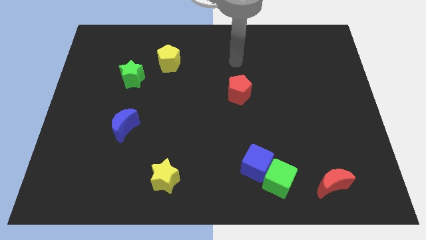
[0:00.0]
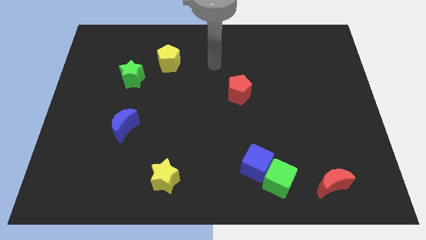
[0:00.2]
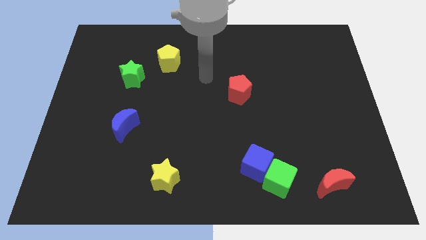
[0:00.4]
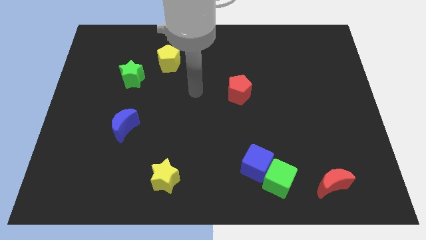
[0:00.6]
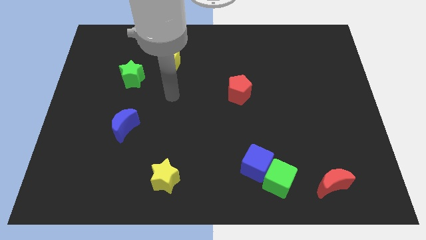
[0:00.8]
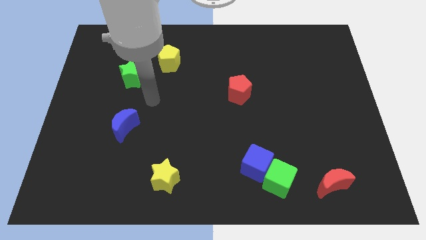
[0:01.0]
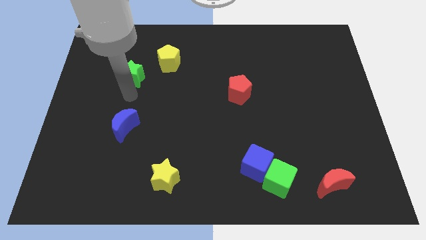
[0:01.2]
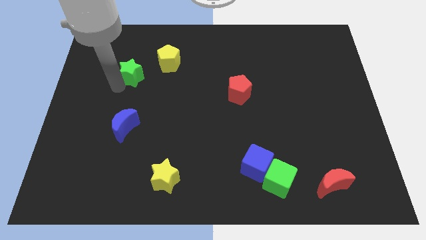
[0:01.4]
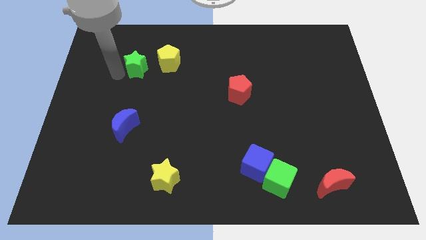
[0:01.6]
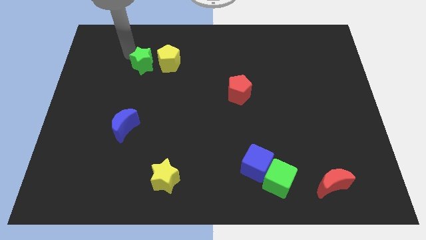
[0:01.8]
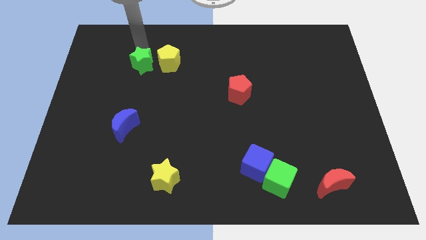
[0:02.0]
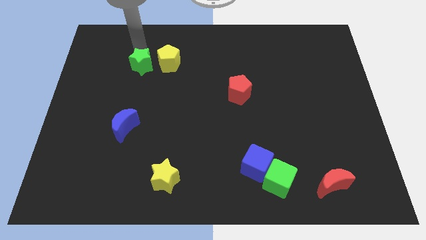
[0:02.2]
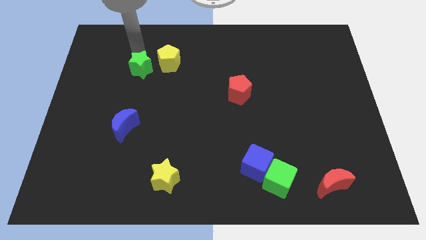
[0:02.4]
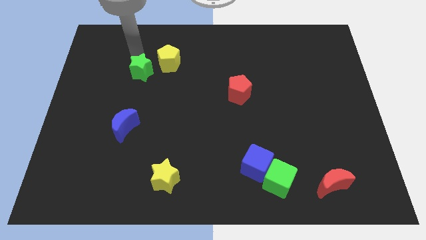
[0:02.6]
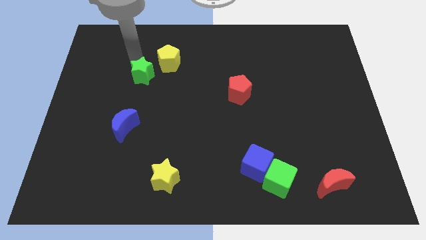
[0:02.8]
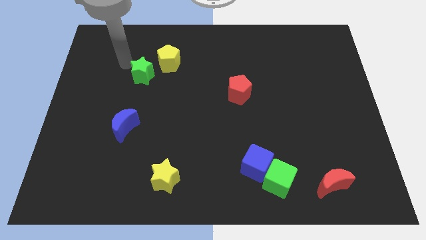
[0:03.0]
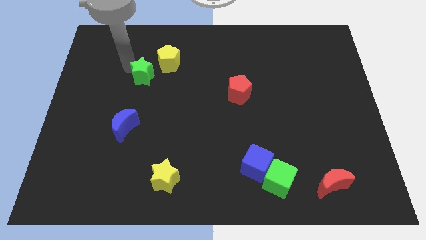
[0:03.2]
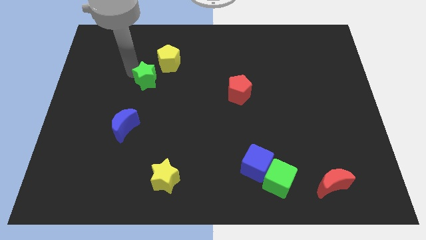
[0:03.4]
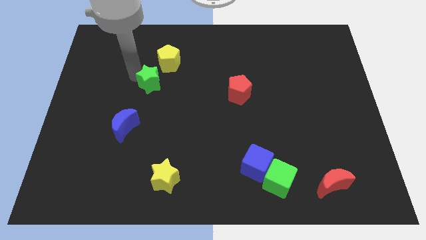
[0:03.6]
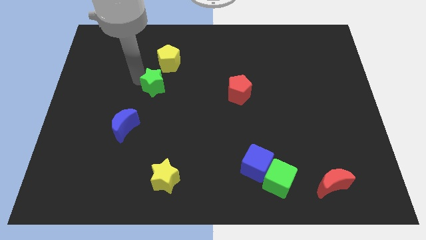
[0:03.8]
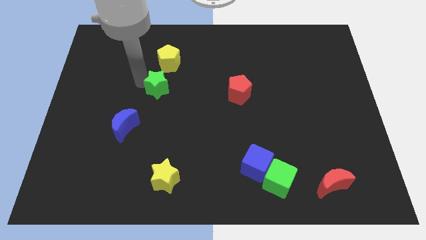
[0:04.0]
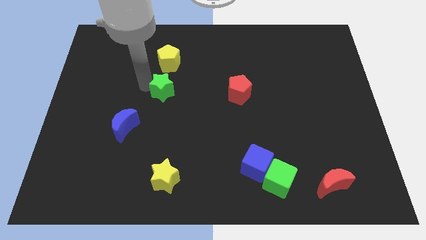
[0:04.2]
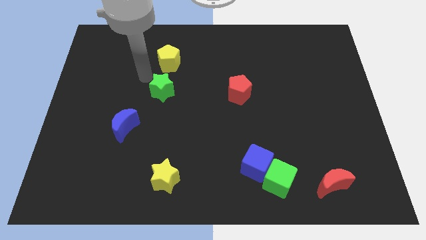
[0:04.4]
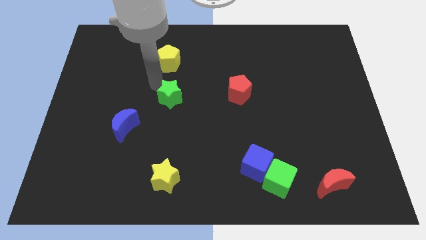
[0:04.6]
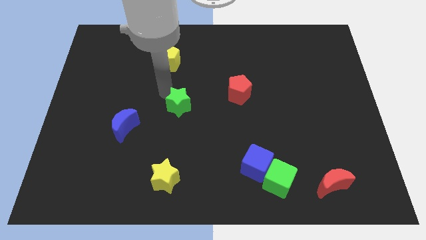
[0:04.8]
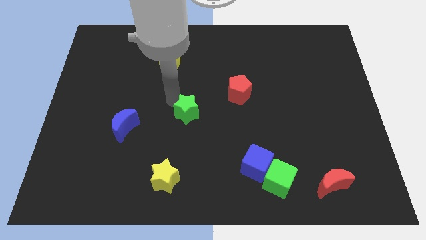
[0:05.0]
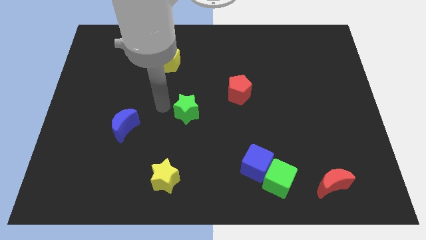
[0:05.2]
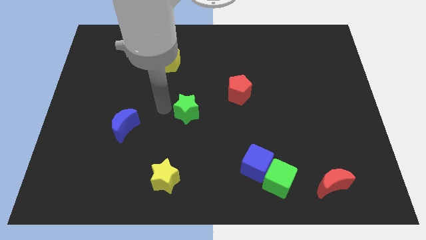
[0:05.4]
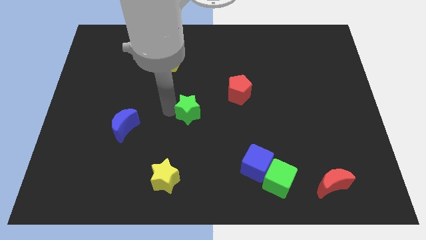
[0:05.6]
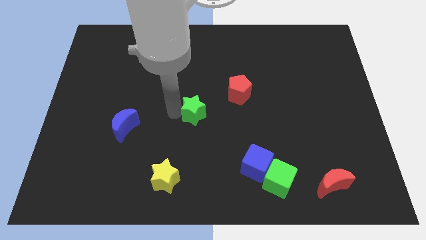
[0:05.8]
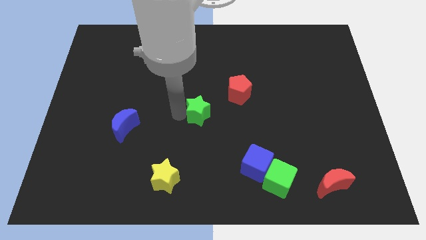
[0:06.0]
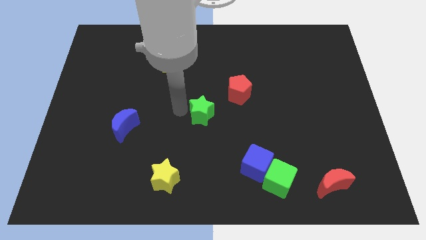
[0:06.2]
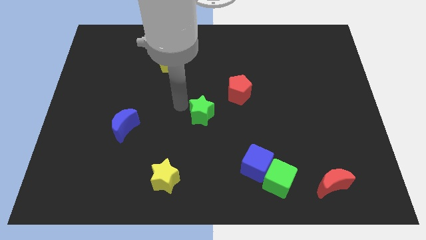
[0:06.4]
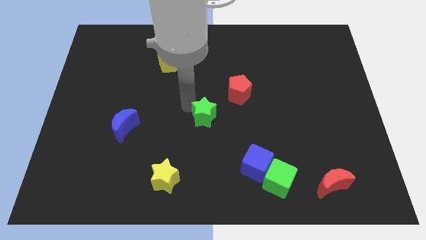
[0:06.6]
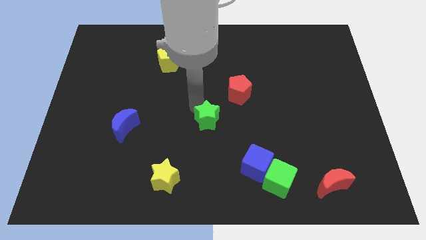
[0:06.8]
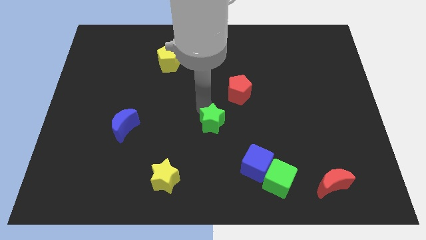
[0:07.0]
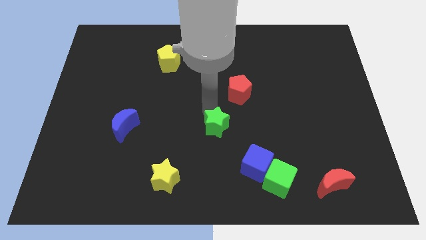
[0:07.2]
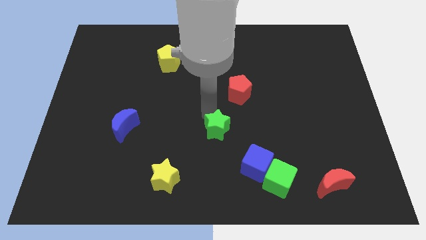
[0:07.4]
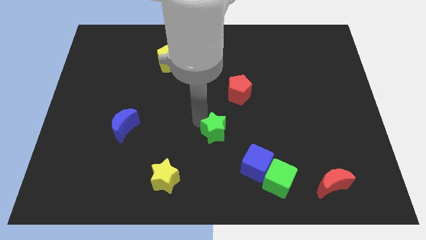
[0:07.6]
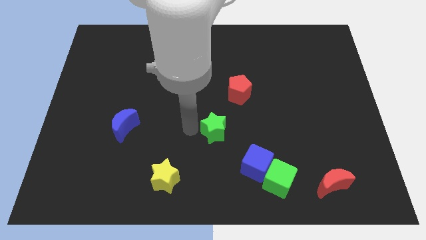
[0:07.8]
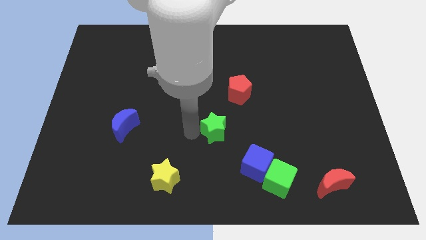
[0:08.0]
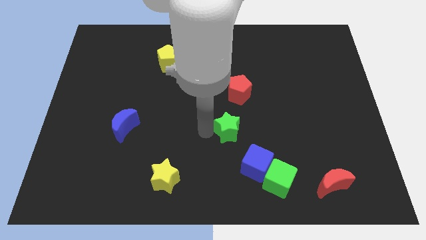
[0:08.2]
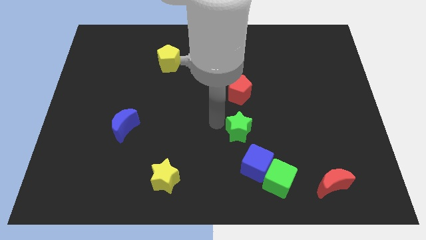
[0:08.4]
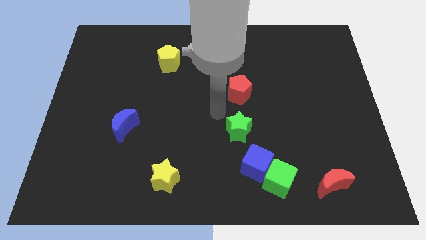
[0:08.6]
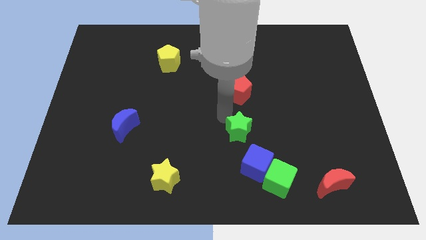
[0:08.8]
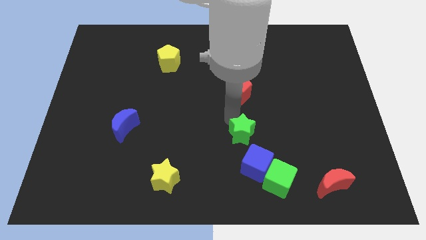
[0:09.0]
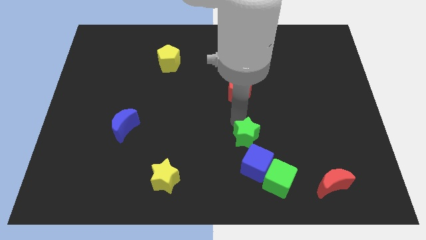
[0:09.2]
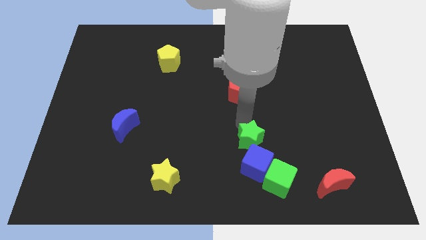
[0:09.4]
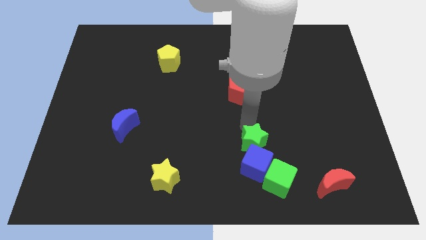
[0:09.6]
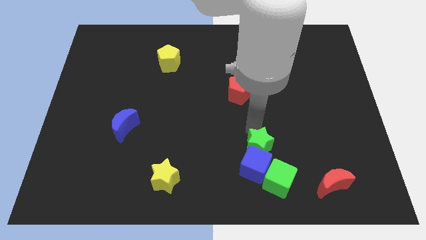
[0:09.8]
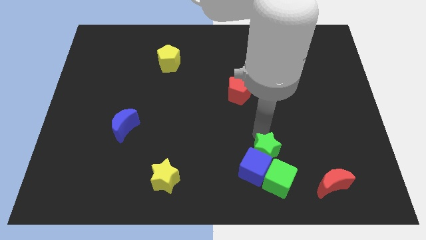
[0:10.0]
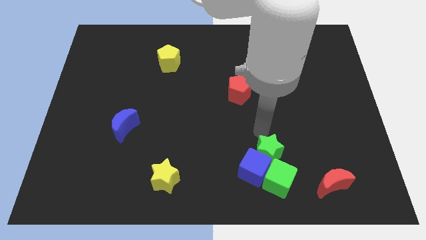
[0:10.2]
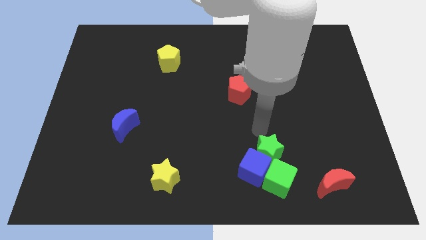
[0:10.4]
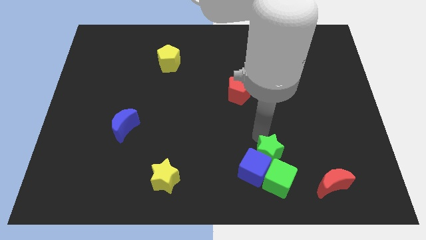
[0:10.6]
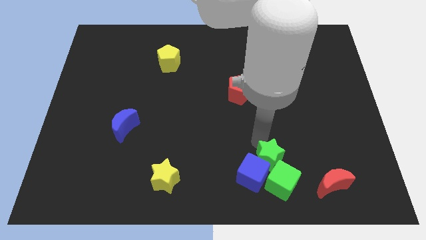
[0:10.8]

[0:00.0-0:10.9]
slide the green star close to the green cube

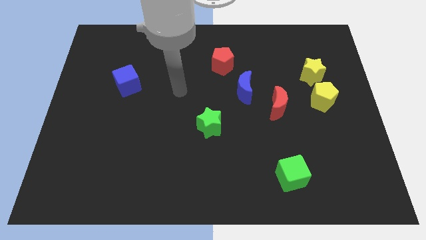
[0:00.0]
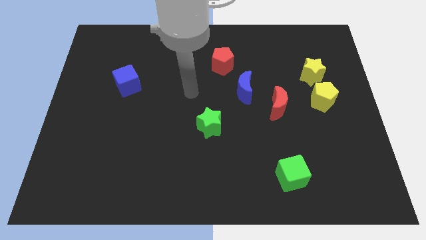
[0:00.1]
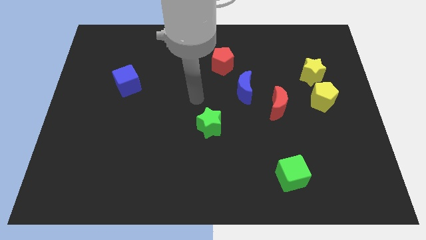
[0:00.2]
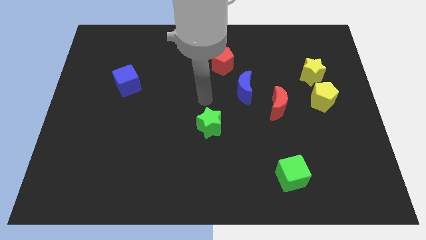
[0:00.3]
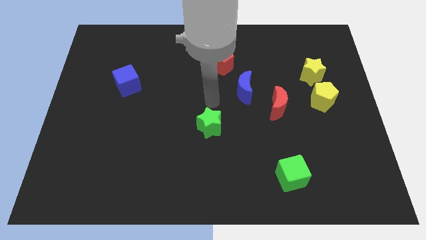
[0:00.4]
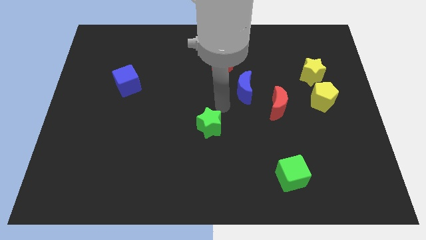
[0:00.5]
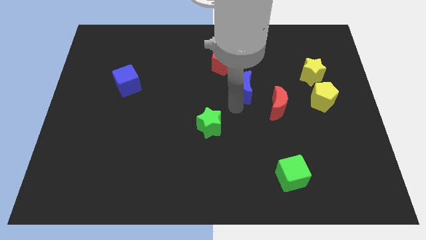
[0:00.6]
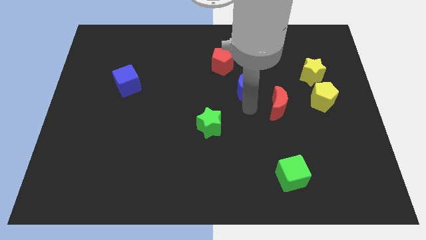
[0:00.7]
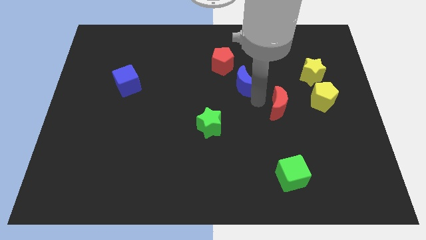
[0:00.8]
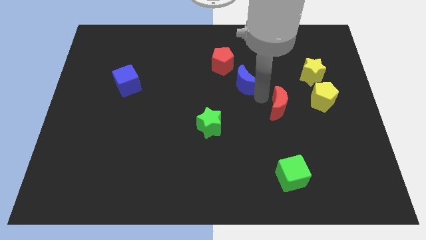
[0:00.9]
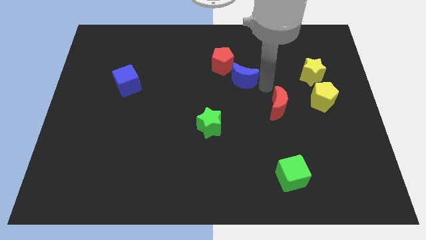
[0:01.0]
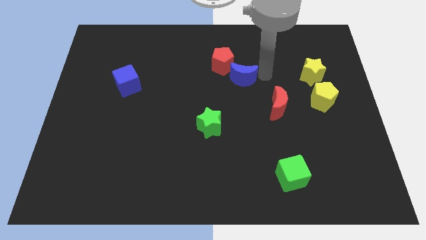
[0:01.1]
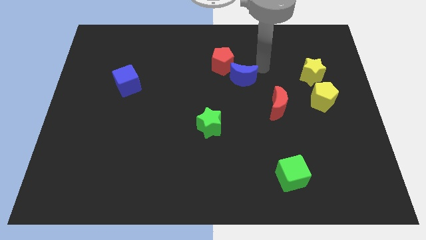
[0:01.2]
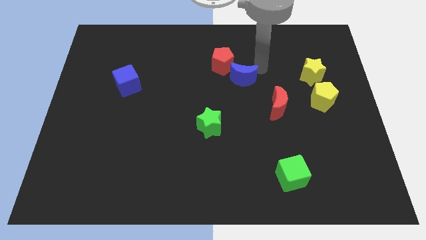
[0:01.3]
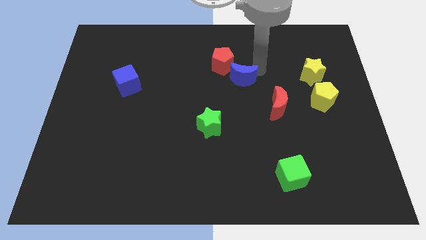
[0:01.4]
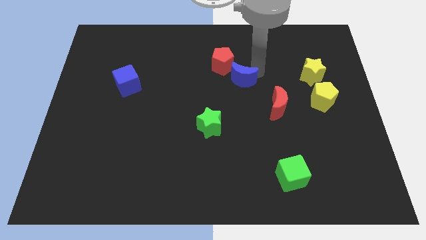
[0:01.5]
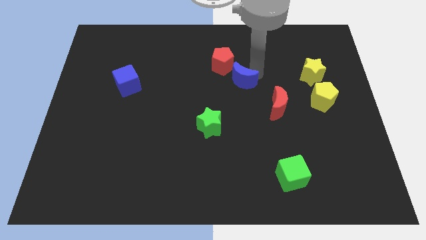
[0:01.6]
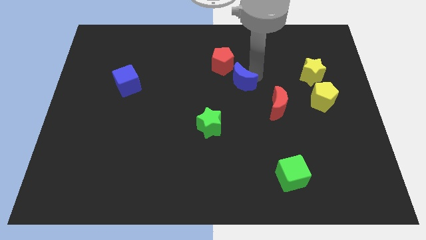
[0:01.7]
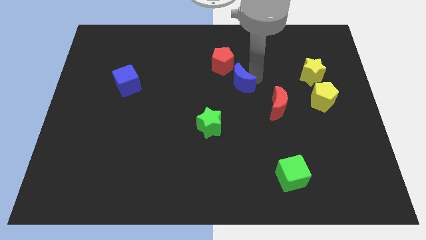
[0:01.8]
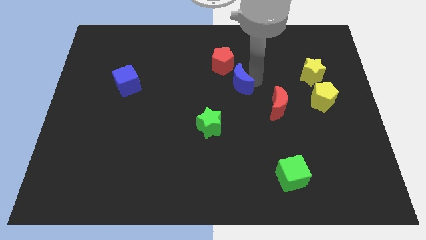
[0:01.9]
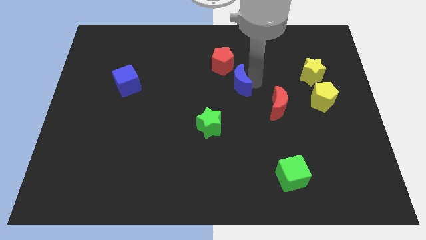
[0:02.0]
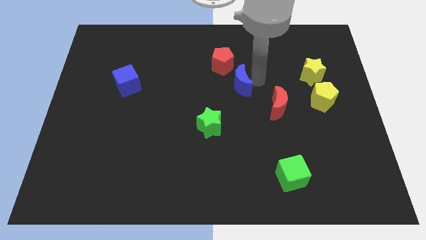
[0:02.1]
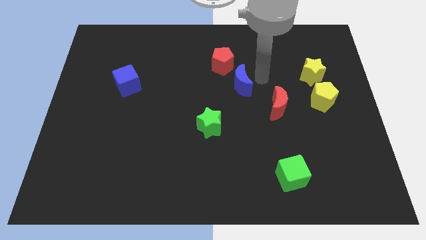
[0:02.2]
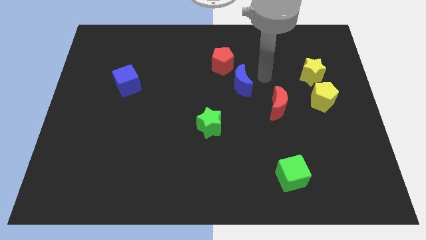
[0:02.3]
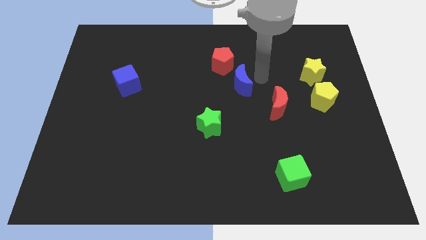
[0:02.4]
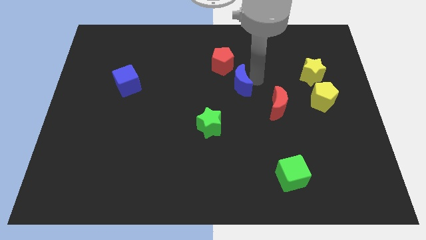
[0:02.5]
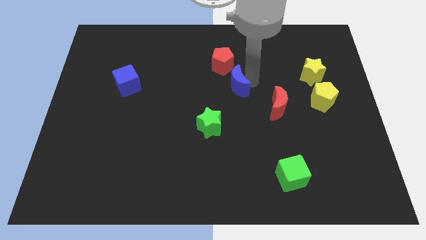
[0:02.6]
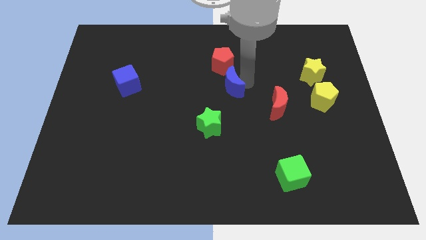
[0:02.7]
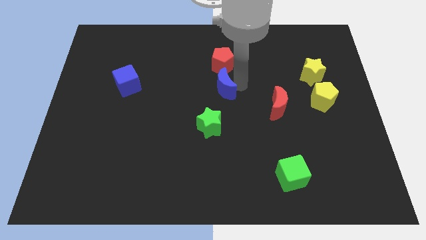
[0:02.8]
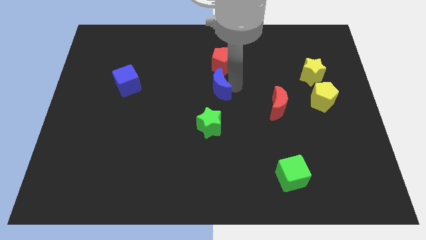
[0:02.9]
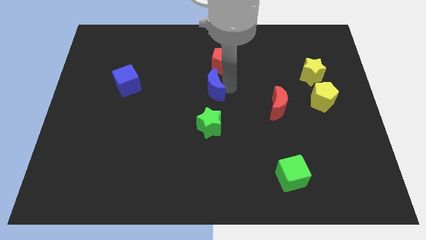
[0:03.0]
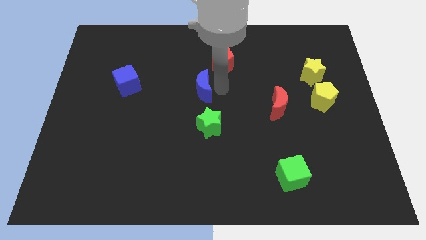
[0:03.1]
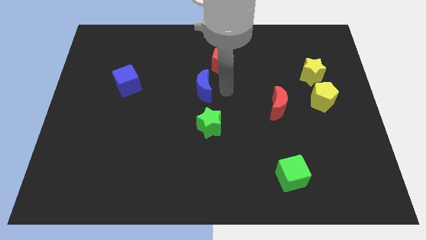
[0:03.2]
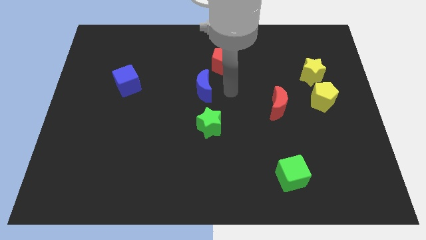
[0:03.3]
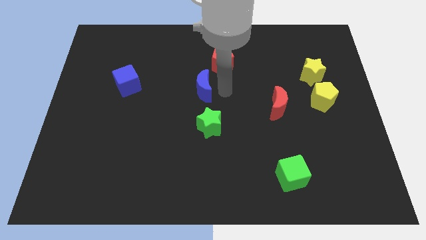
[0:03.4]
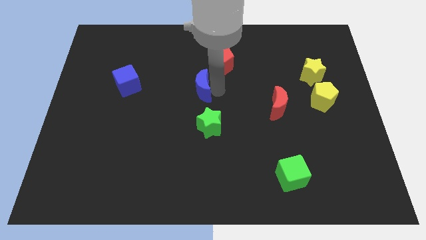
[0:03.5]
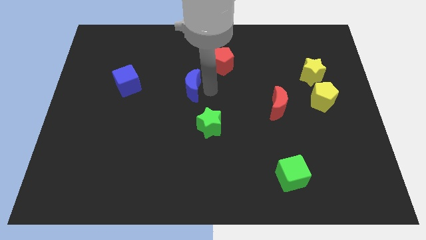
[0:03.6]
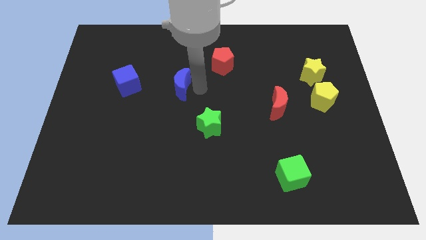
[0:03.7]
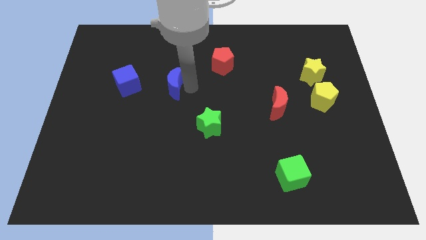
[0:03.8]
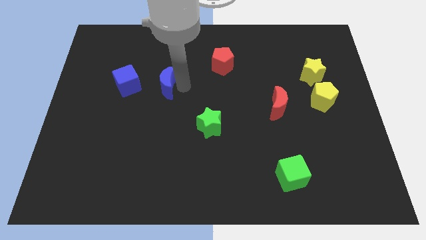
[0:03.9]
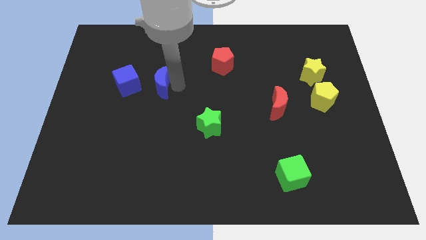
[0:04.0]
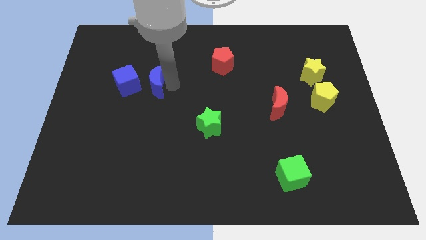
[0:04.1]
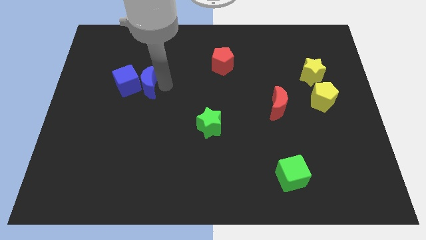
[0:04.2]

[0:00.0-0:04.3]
move the blue moon next to the blue cube
